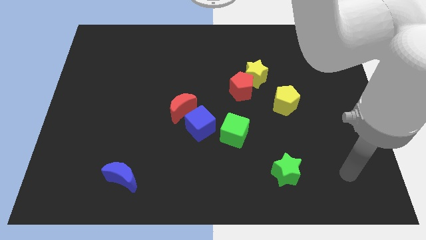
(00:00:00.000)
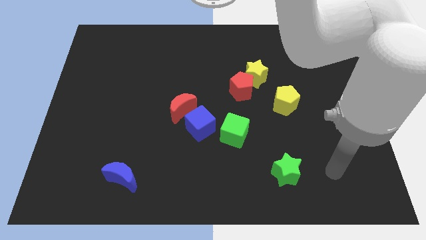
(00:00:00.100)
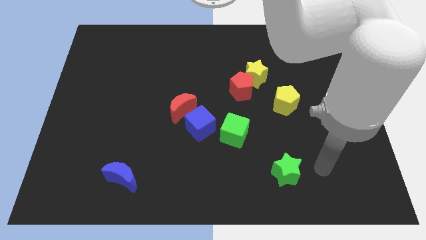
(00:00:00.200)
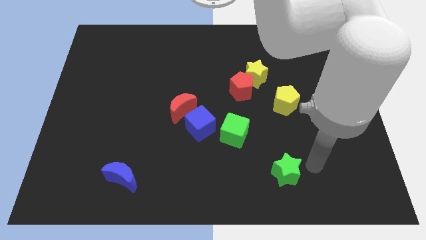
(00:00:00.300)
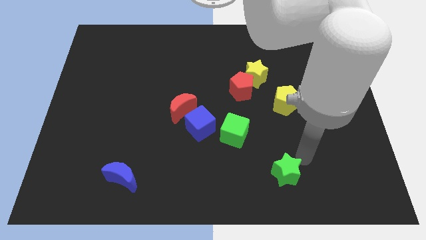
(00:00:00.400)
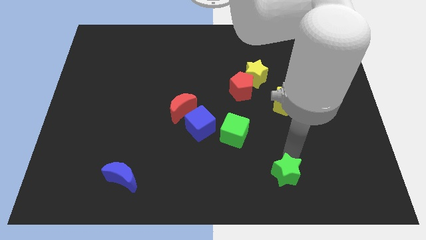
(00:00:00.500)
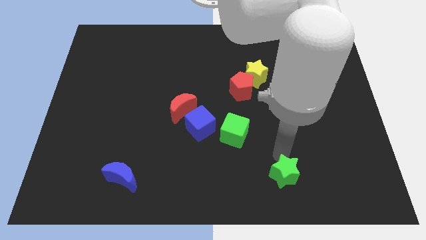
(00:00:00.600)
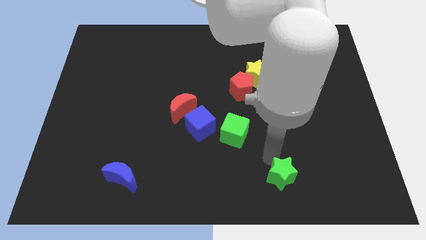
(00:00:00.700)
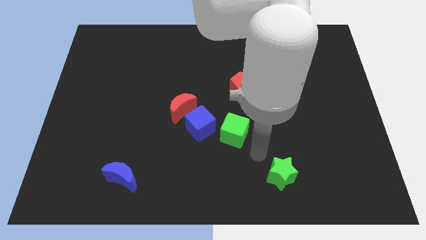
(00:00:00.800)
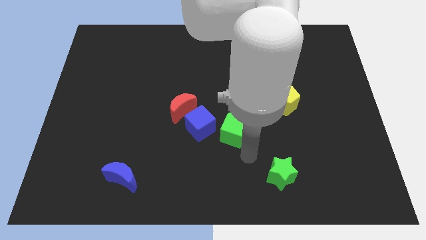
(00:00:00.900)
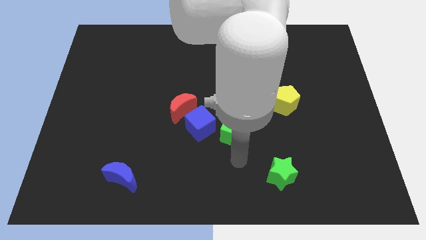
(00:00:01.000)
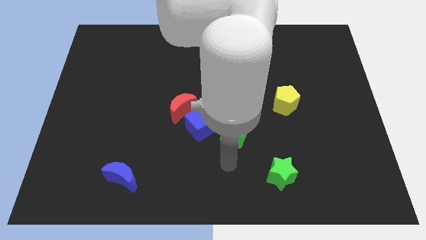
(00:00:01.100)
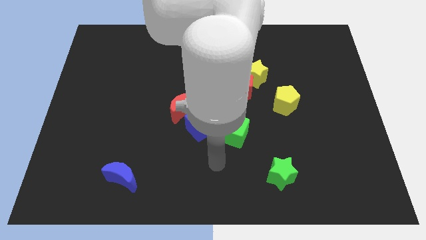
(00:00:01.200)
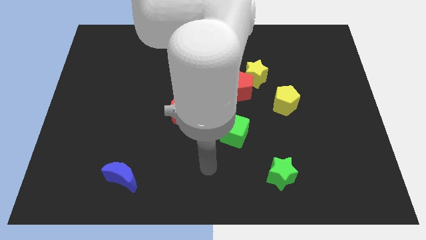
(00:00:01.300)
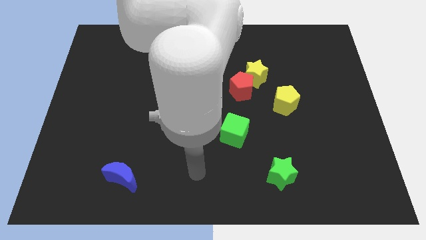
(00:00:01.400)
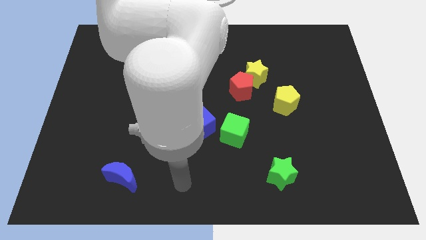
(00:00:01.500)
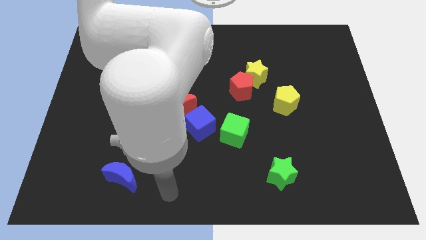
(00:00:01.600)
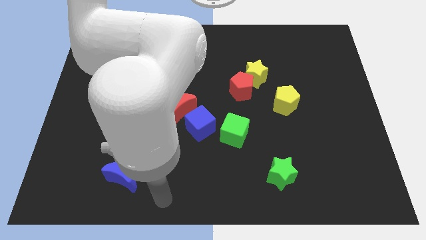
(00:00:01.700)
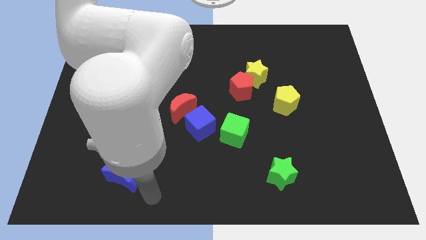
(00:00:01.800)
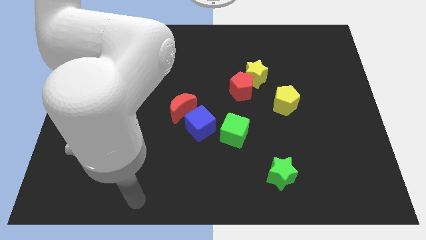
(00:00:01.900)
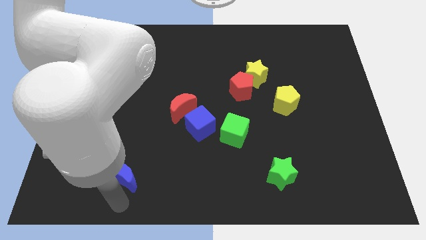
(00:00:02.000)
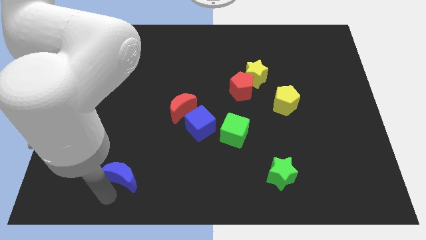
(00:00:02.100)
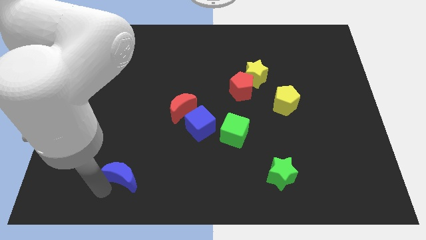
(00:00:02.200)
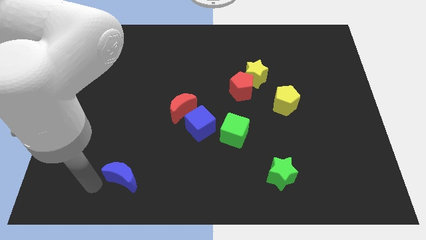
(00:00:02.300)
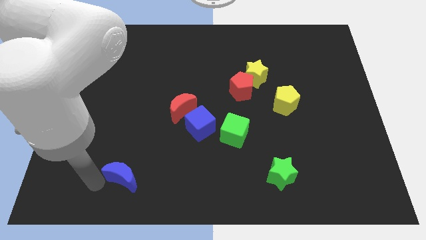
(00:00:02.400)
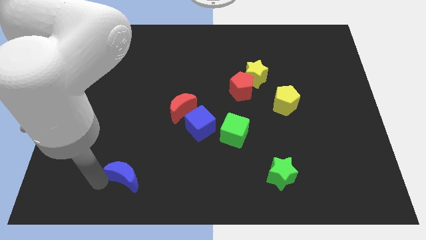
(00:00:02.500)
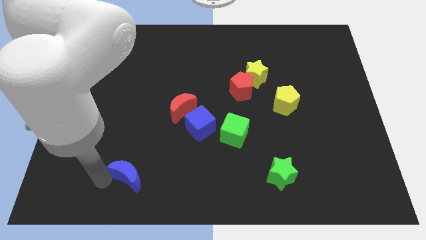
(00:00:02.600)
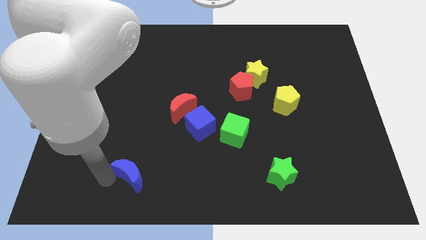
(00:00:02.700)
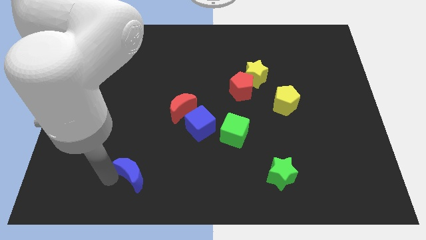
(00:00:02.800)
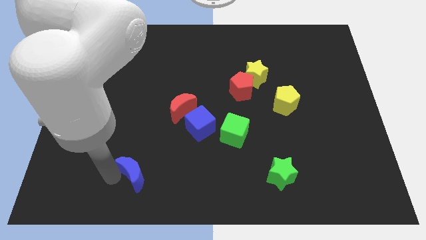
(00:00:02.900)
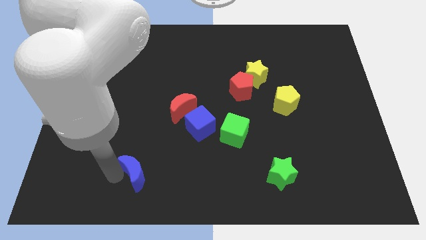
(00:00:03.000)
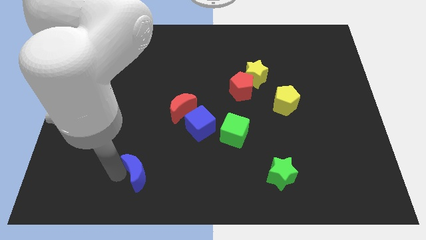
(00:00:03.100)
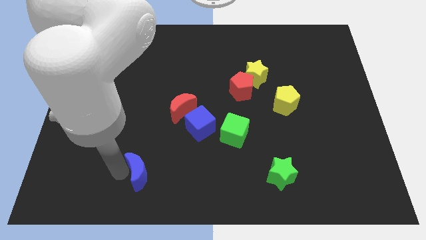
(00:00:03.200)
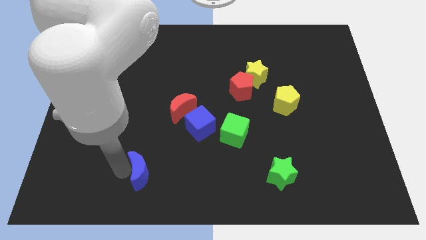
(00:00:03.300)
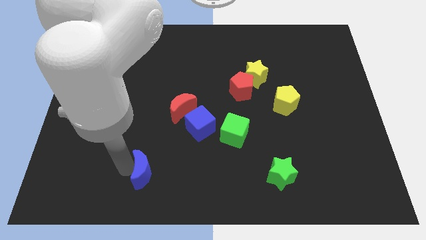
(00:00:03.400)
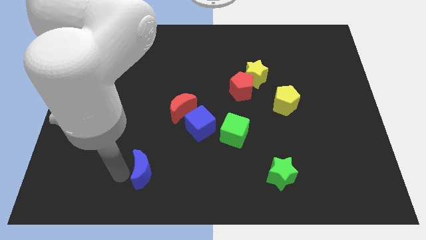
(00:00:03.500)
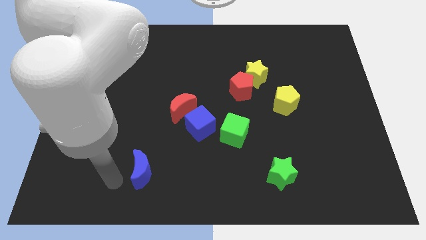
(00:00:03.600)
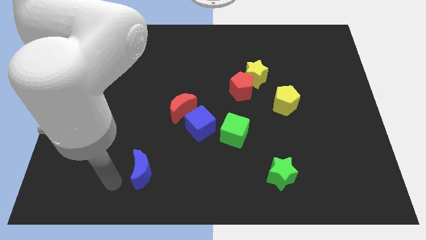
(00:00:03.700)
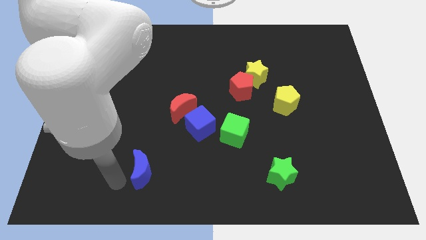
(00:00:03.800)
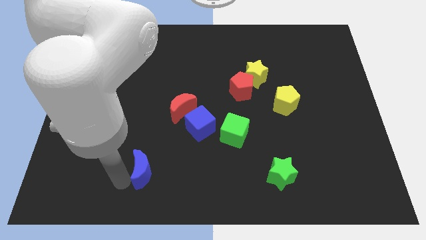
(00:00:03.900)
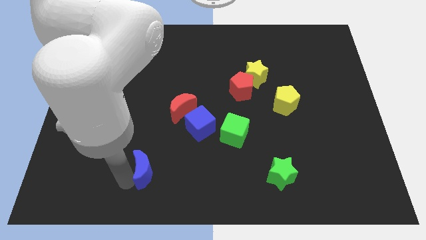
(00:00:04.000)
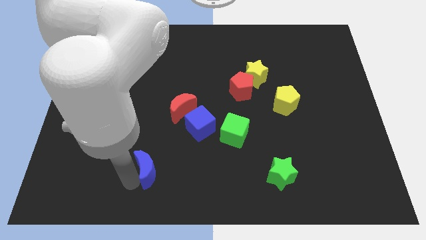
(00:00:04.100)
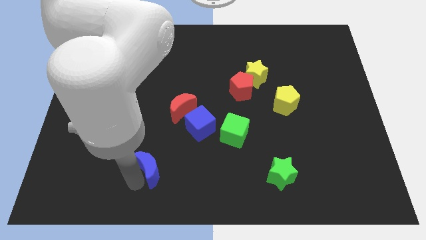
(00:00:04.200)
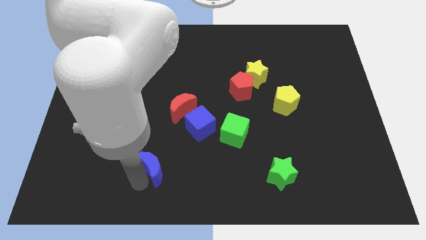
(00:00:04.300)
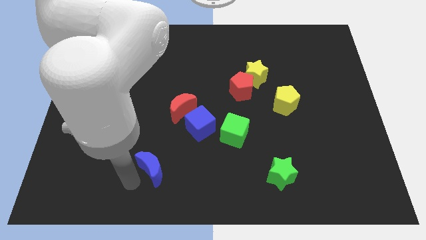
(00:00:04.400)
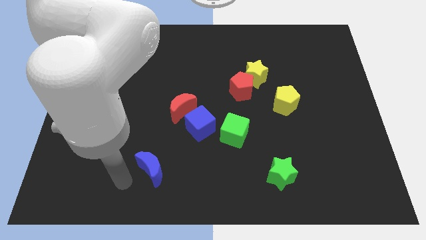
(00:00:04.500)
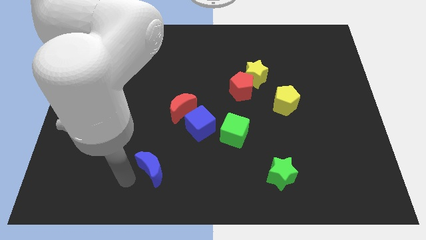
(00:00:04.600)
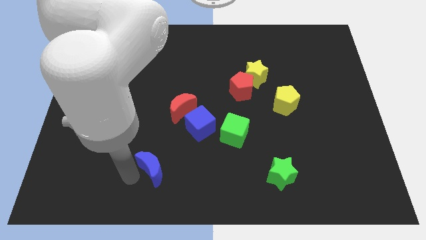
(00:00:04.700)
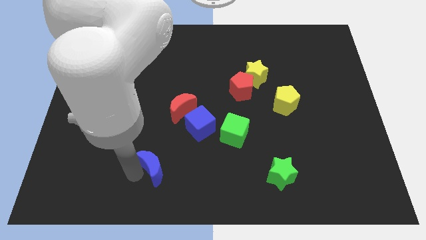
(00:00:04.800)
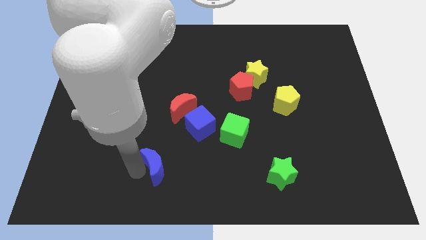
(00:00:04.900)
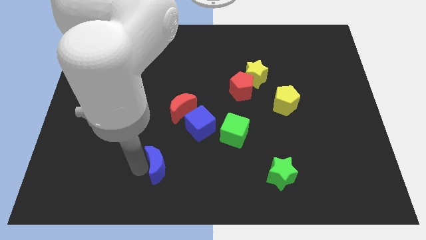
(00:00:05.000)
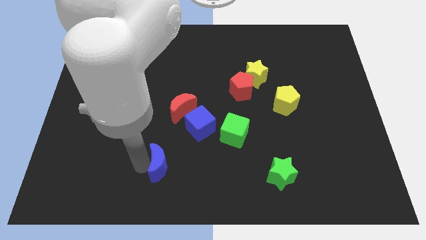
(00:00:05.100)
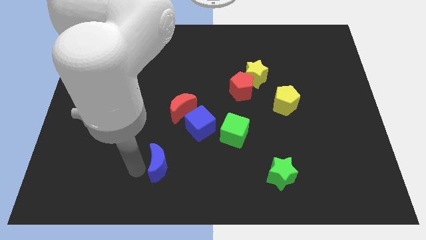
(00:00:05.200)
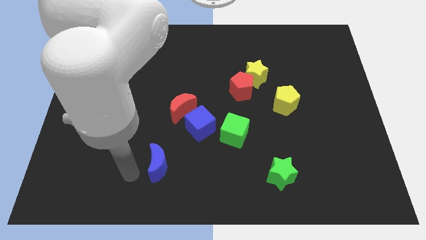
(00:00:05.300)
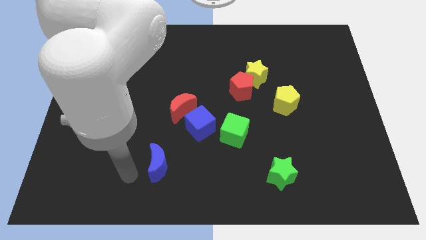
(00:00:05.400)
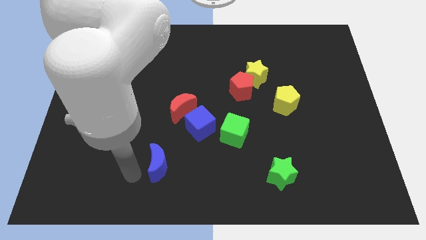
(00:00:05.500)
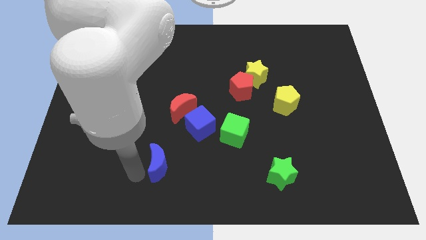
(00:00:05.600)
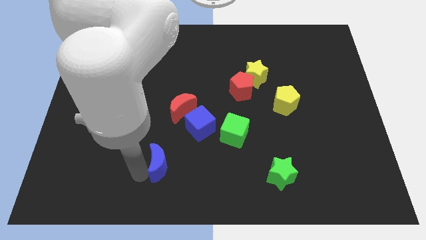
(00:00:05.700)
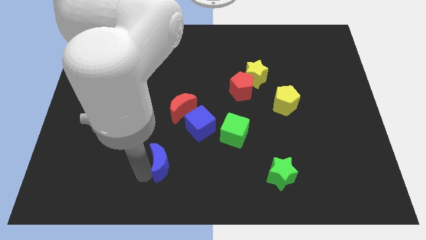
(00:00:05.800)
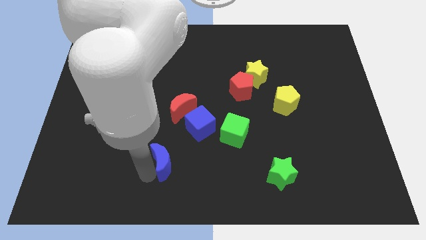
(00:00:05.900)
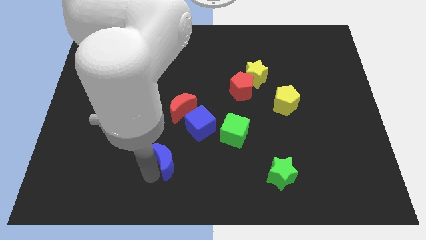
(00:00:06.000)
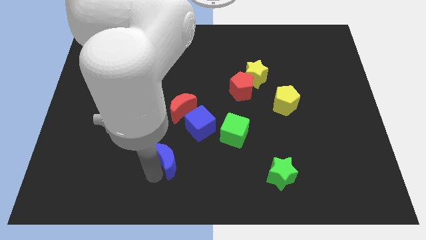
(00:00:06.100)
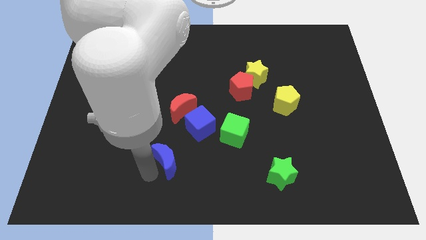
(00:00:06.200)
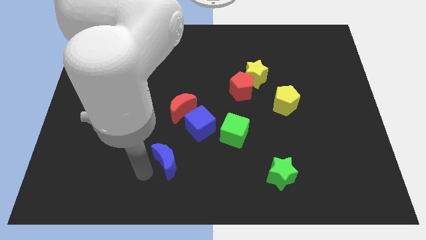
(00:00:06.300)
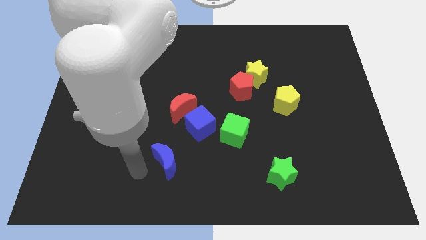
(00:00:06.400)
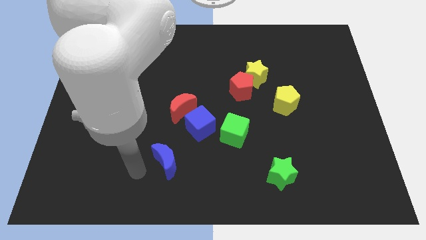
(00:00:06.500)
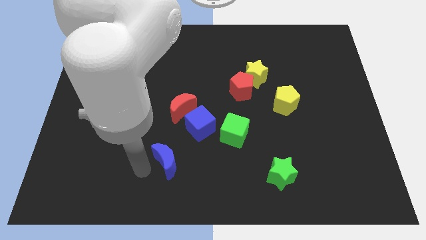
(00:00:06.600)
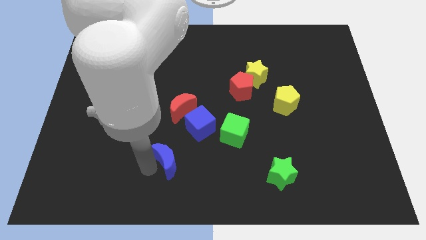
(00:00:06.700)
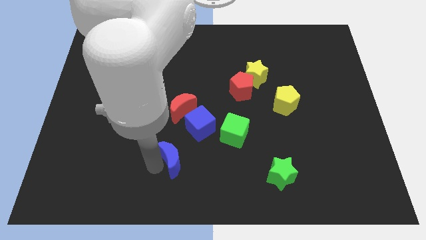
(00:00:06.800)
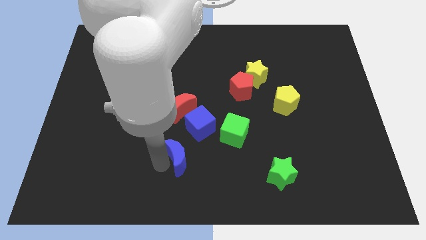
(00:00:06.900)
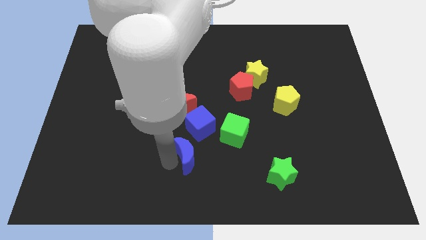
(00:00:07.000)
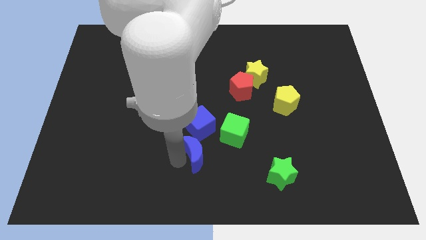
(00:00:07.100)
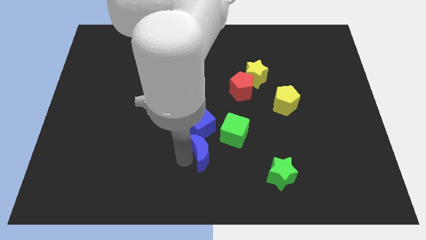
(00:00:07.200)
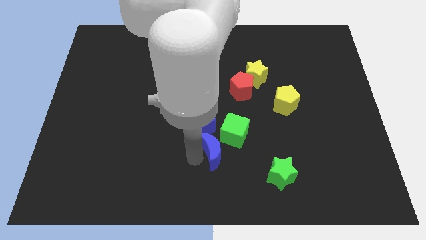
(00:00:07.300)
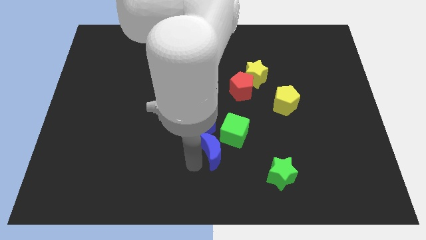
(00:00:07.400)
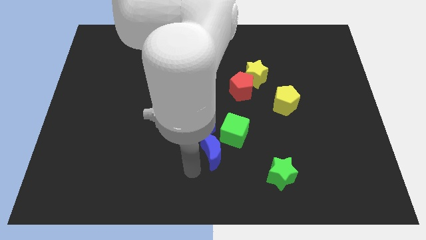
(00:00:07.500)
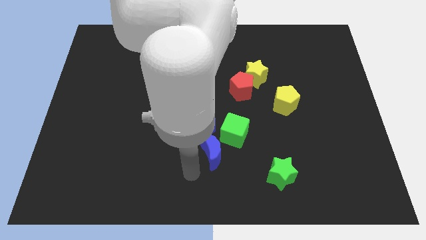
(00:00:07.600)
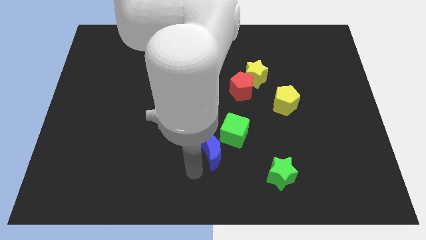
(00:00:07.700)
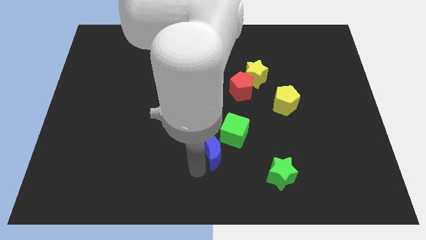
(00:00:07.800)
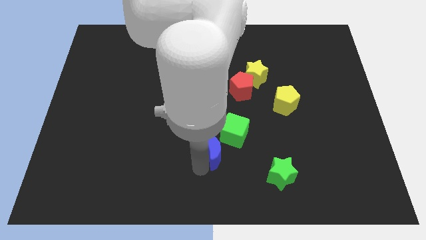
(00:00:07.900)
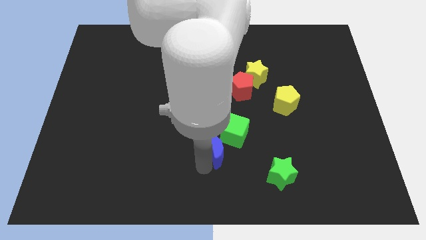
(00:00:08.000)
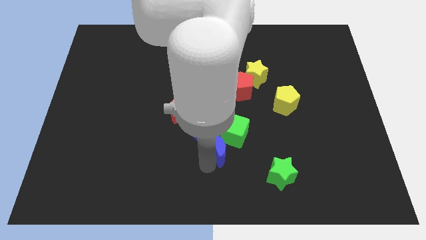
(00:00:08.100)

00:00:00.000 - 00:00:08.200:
push the blue moon next to the green cube
